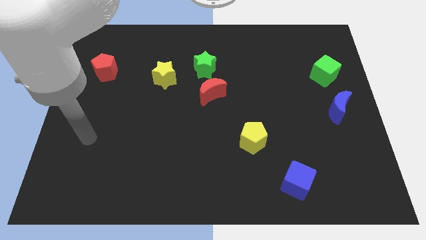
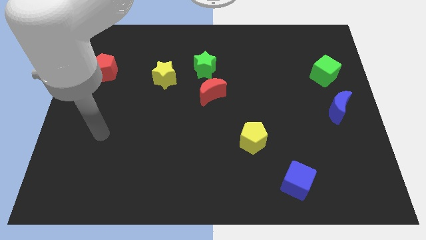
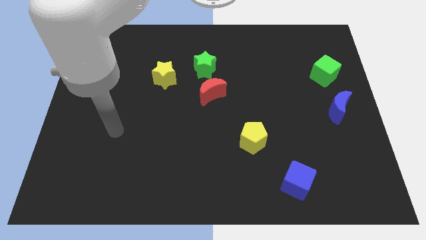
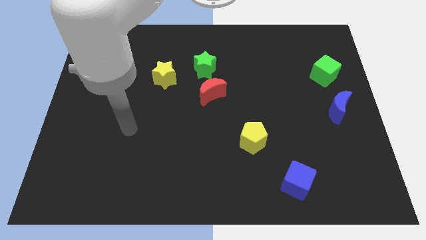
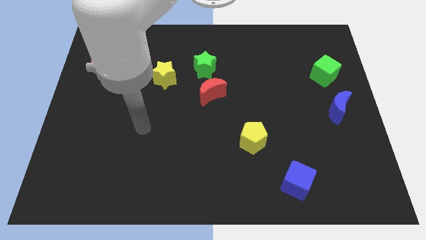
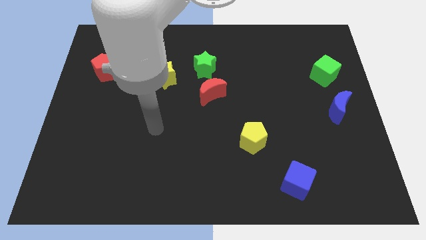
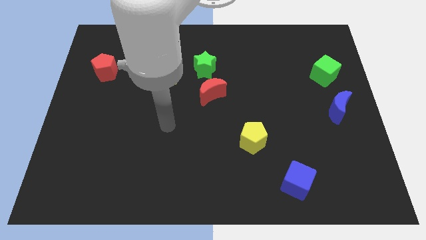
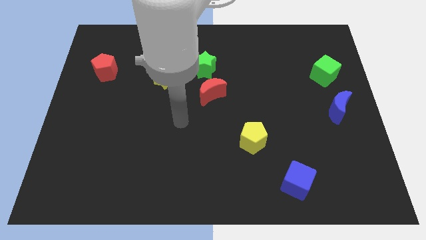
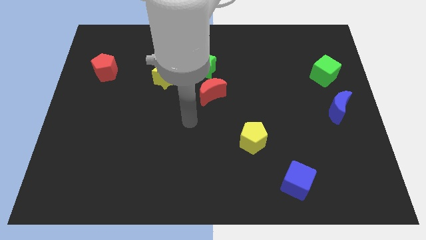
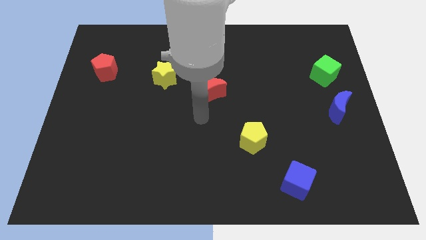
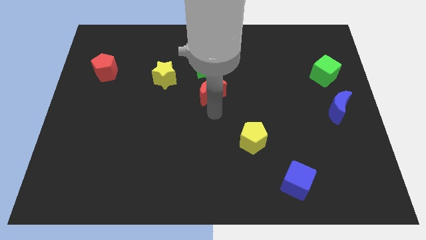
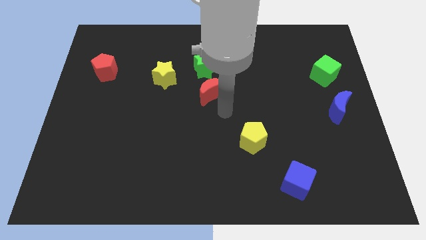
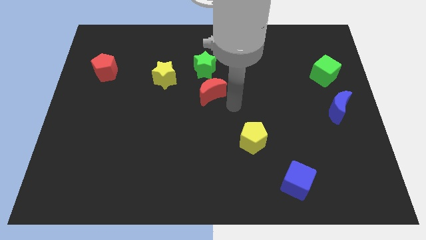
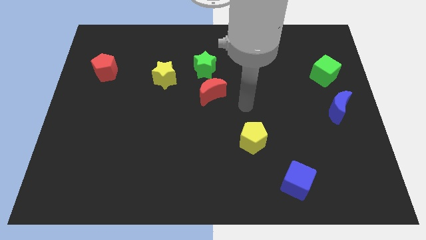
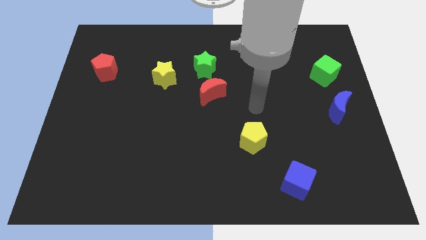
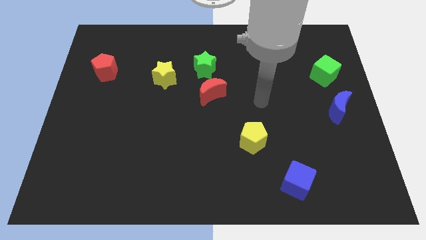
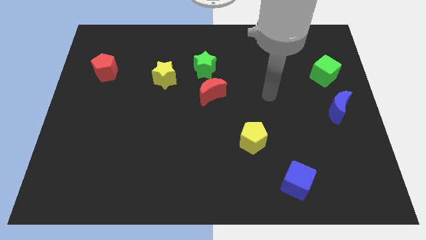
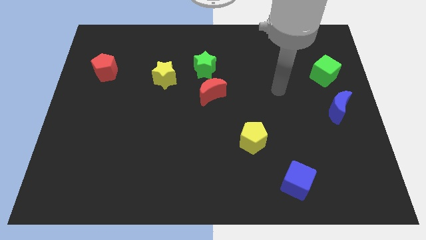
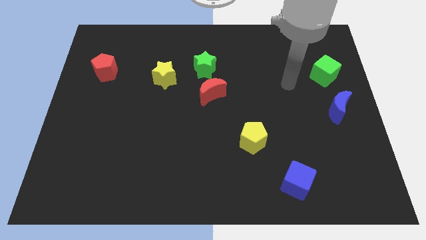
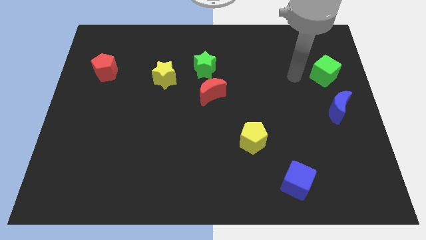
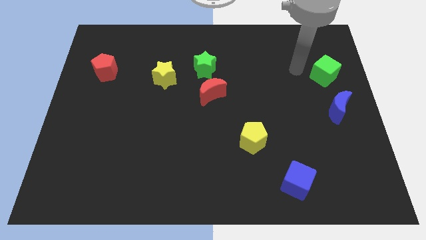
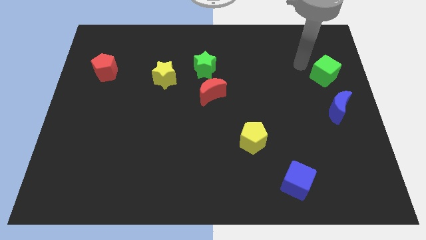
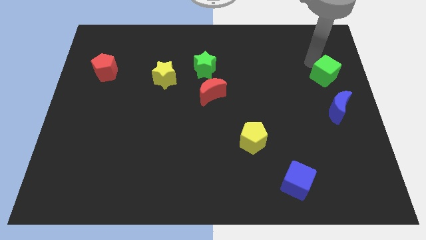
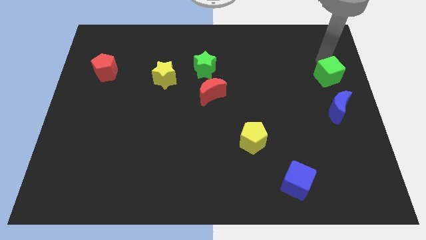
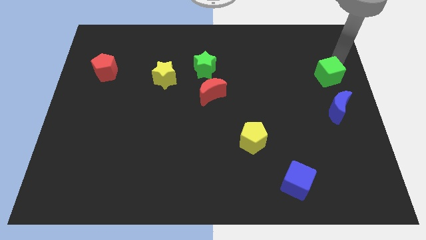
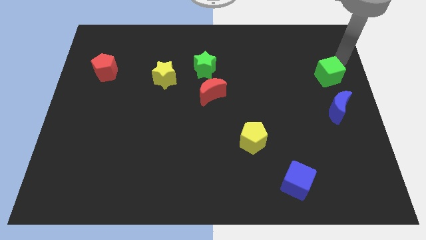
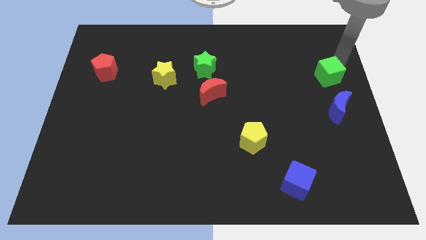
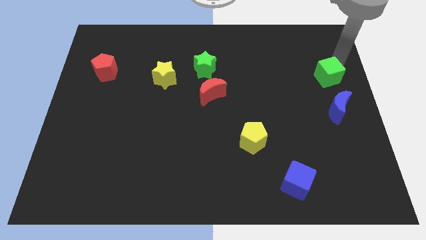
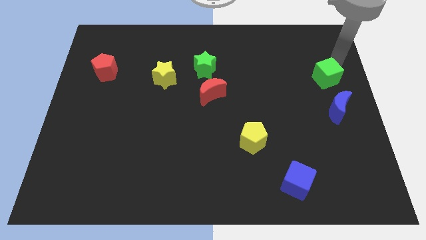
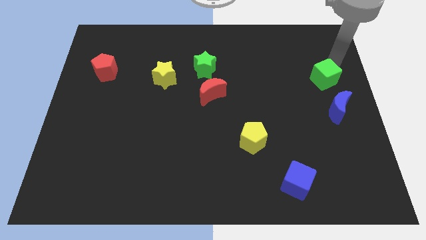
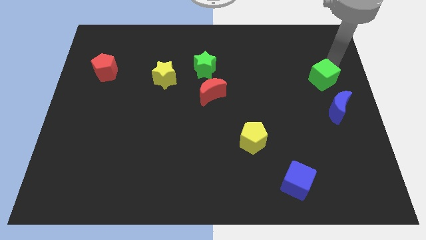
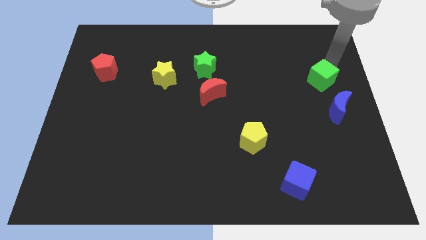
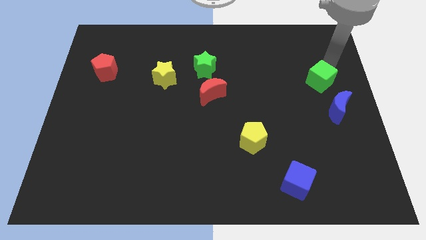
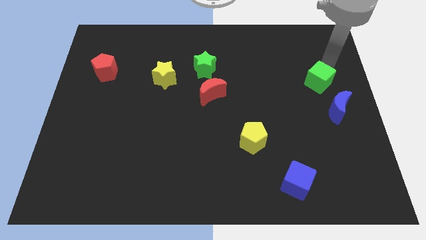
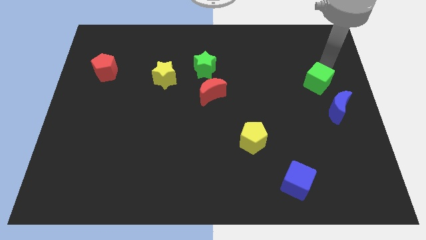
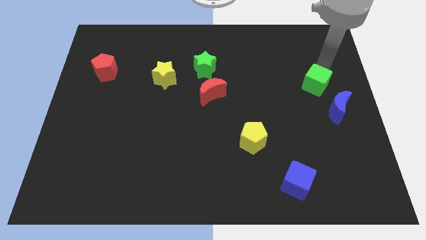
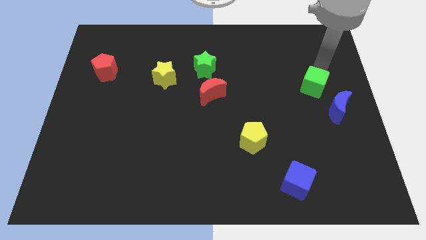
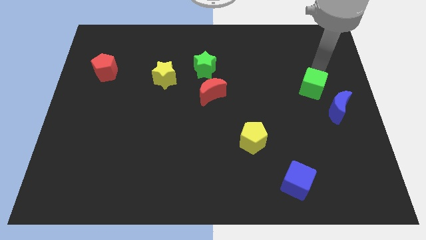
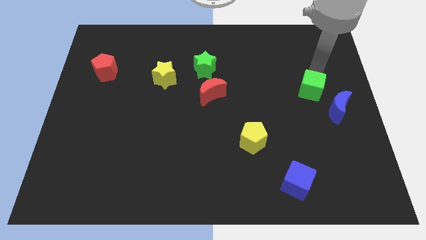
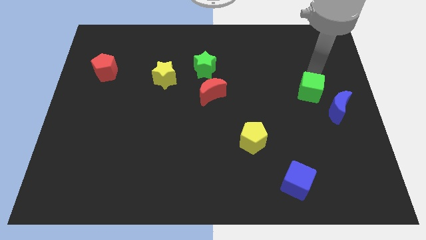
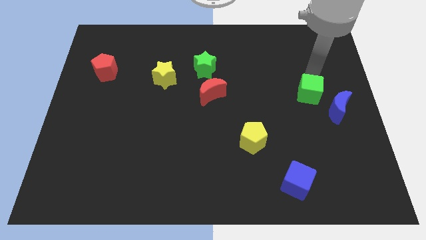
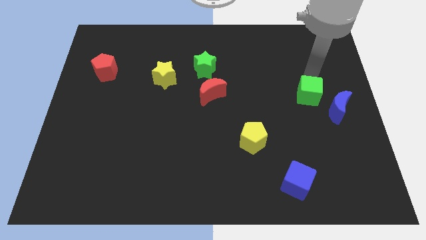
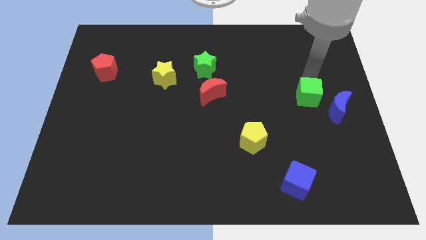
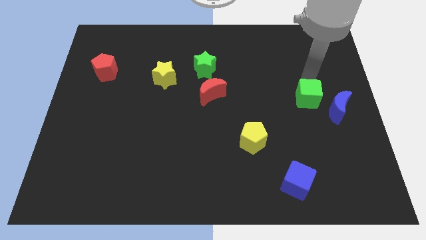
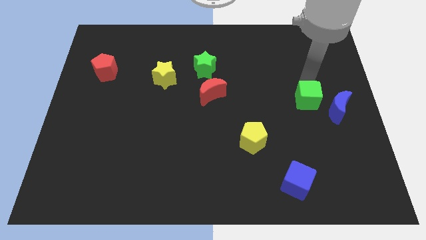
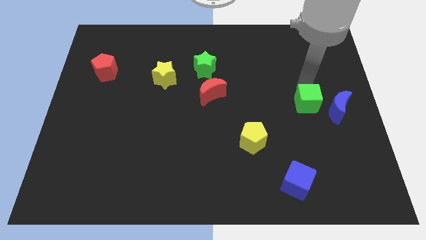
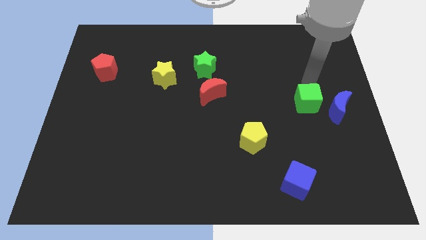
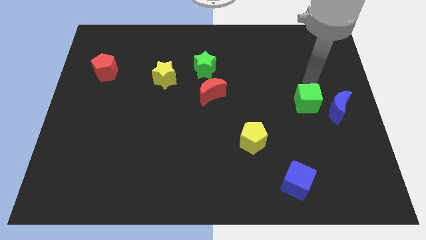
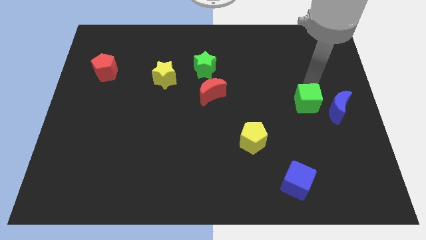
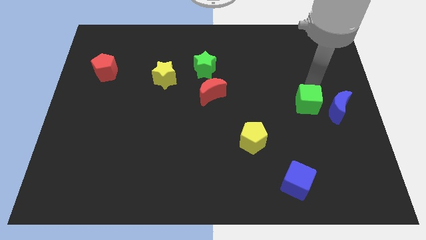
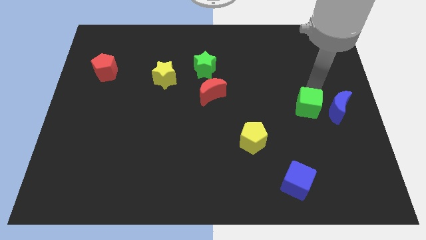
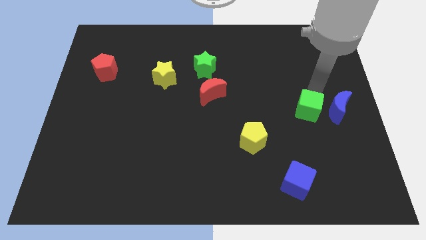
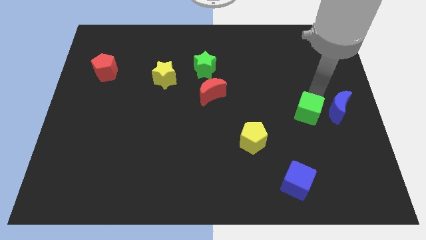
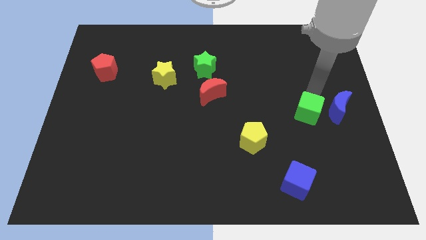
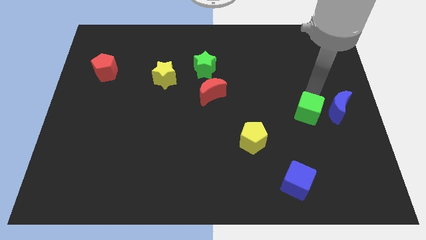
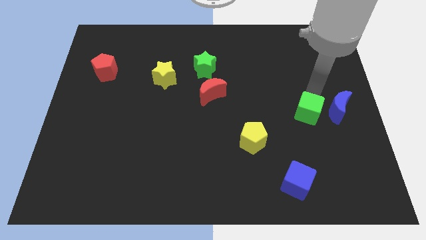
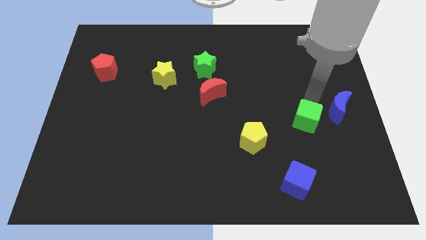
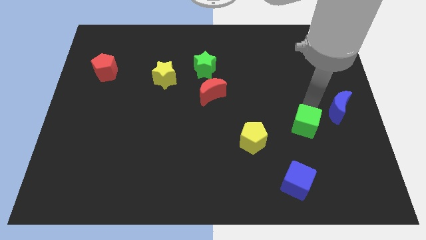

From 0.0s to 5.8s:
slide the green cube to the right side of the yellow pentagon

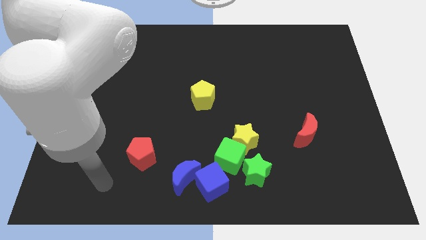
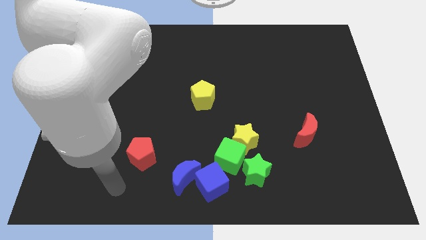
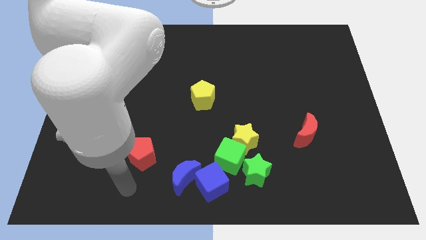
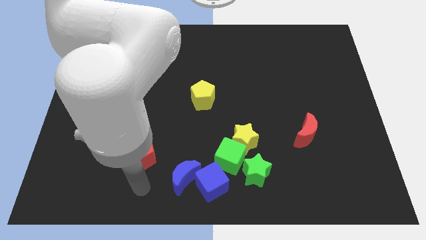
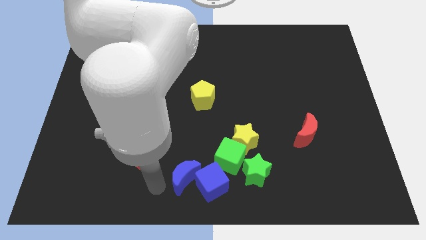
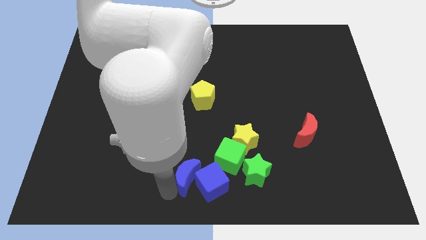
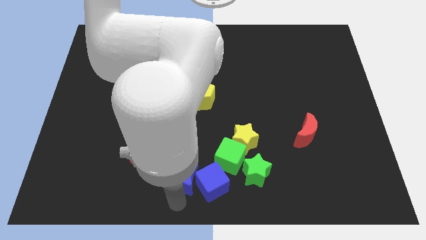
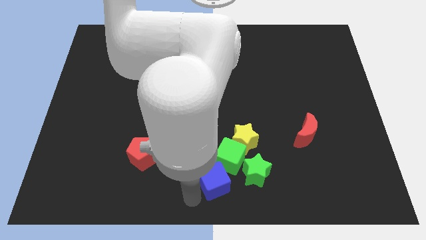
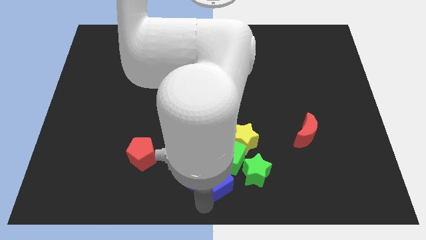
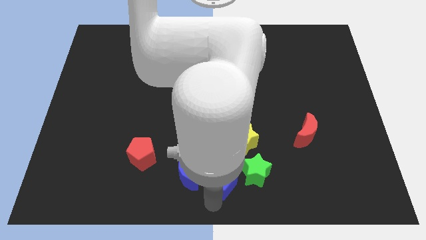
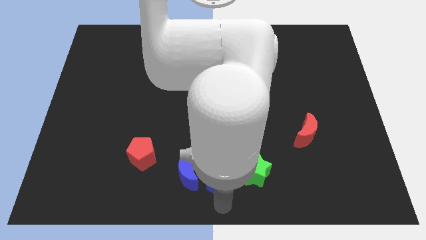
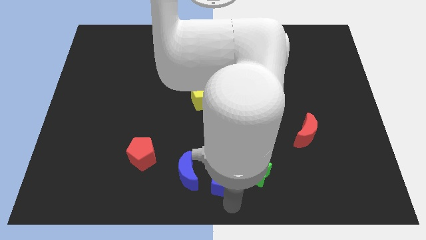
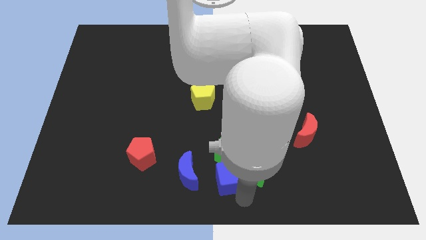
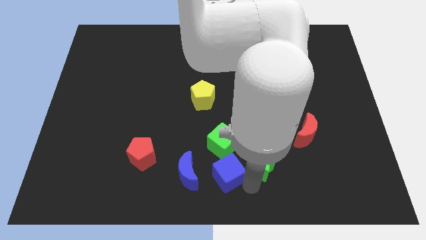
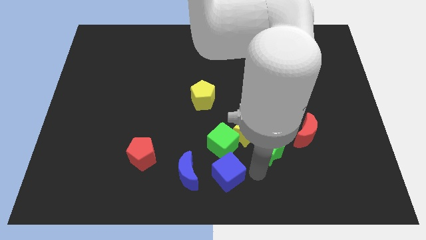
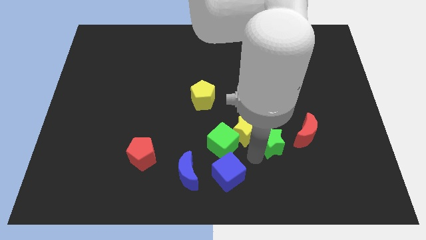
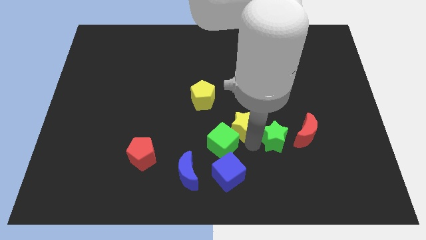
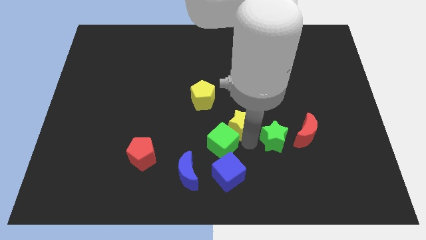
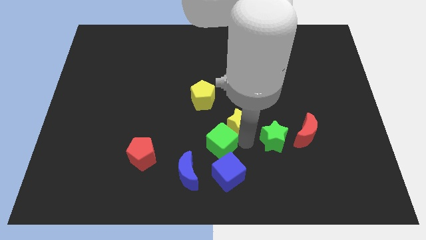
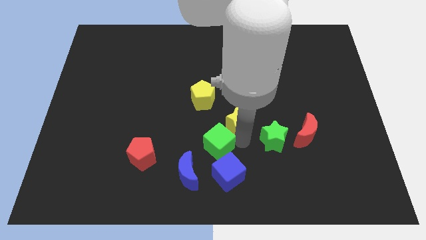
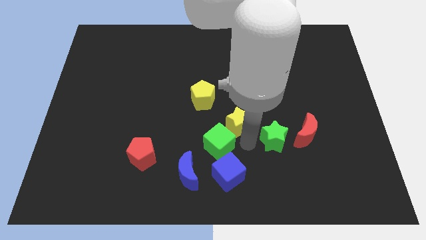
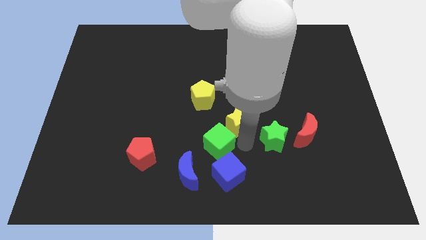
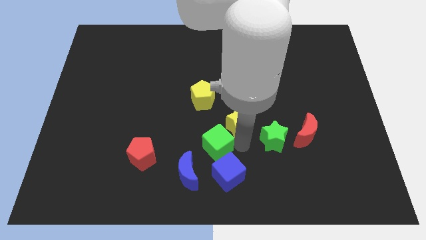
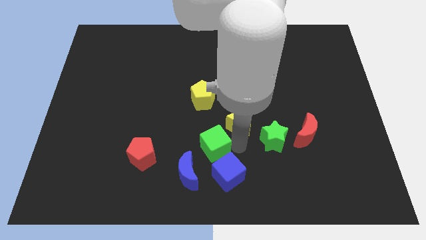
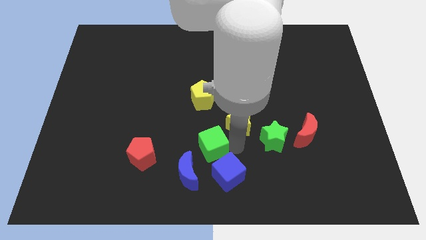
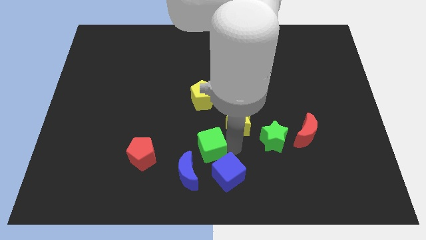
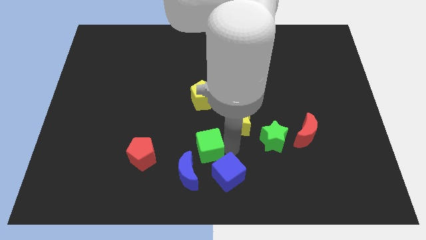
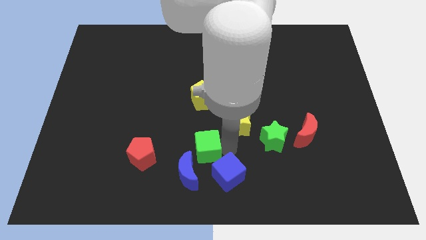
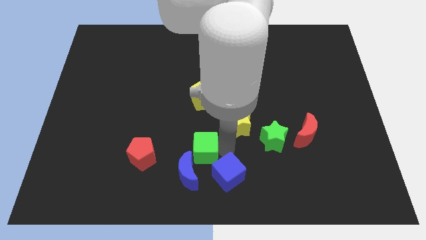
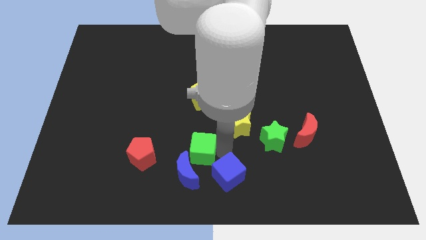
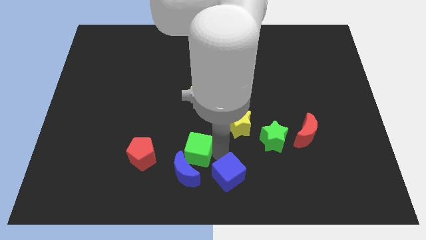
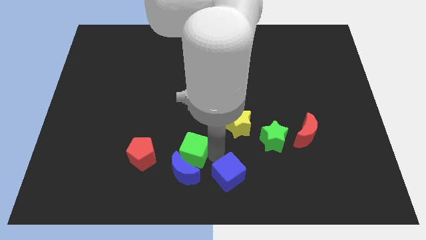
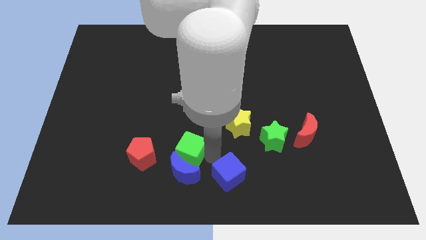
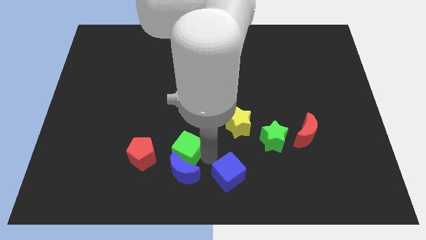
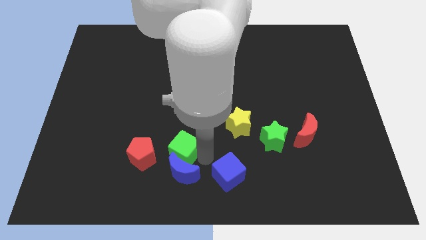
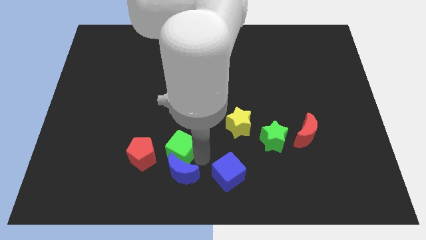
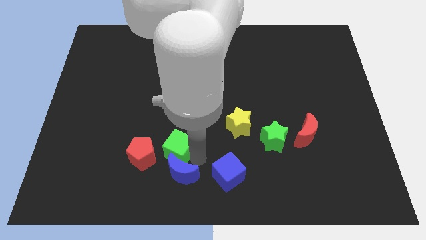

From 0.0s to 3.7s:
slide the green cube to the top right side of the red pentagon
